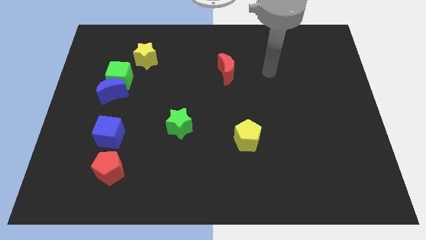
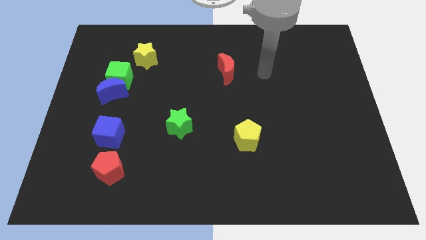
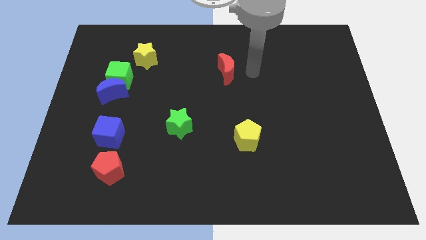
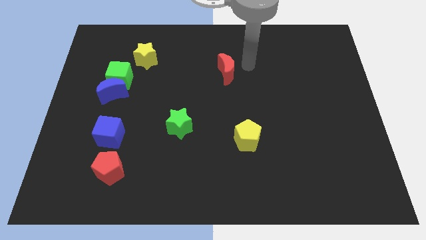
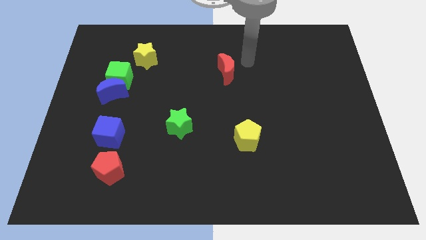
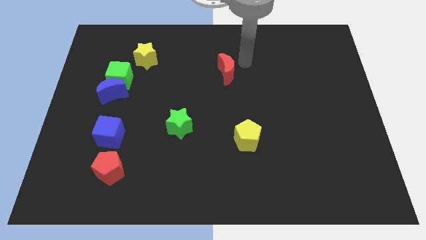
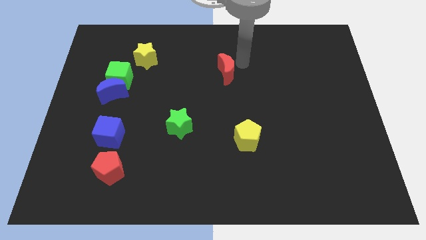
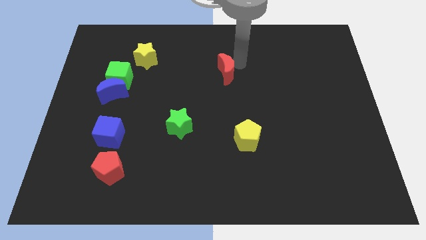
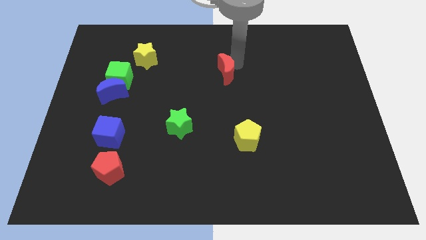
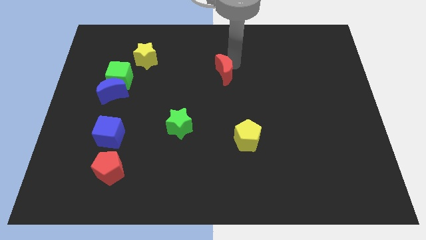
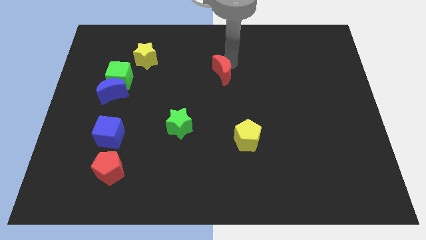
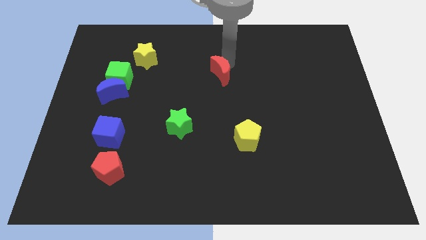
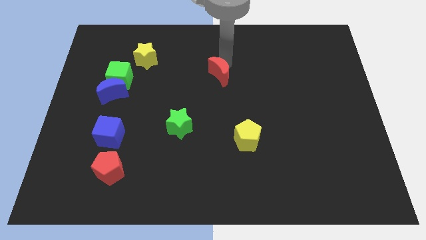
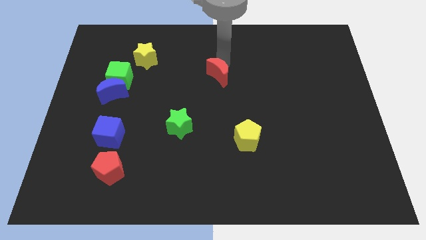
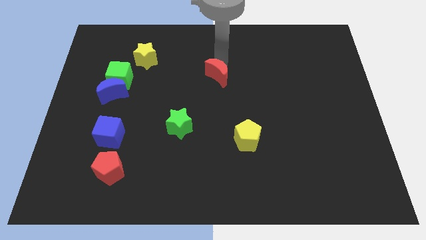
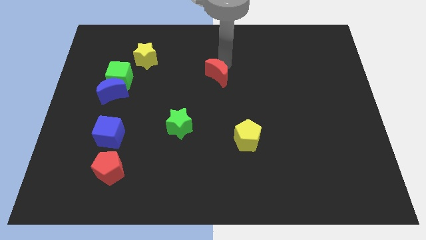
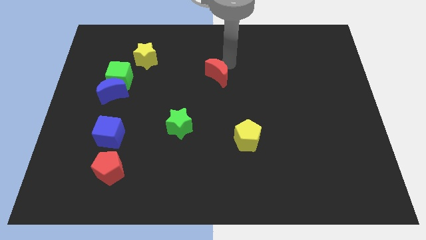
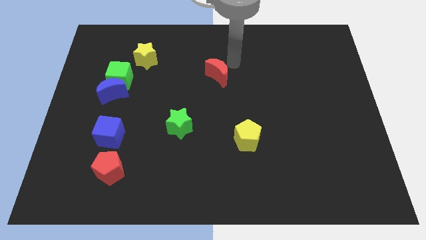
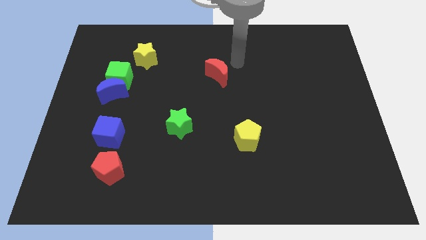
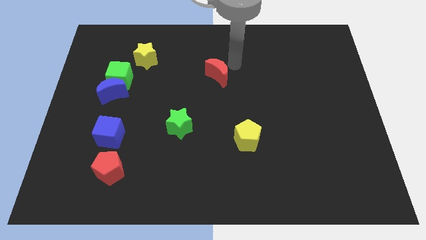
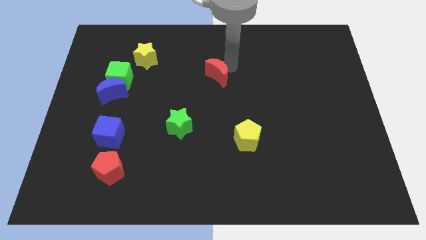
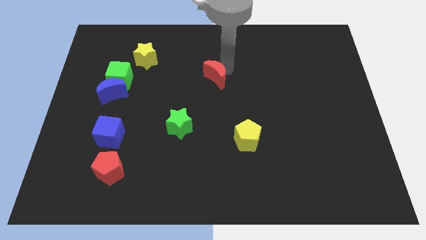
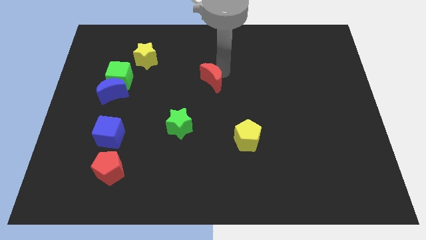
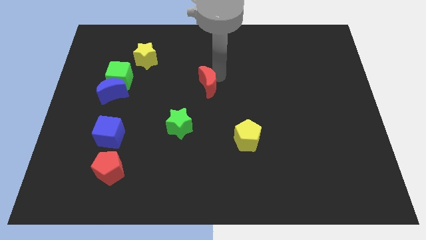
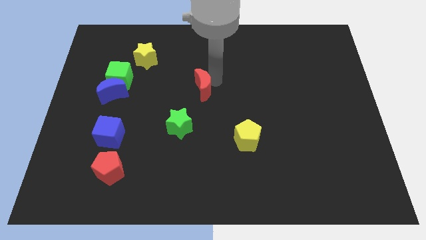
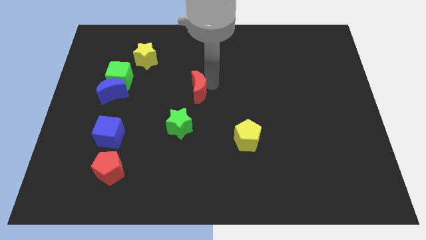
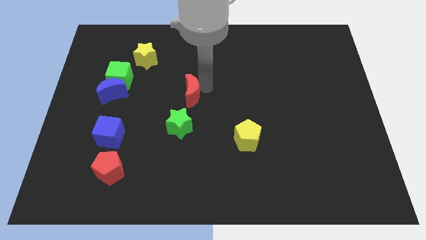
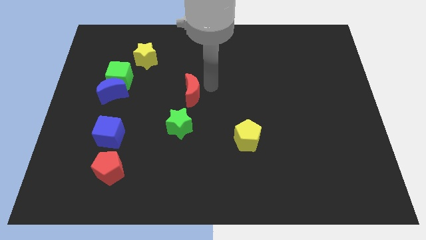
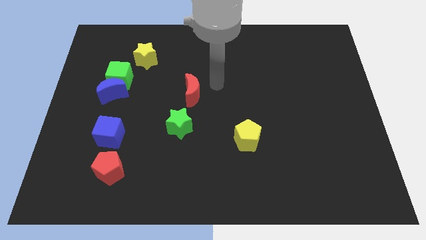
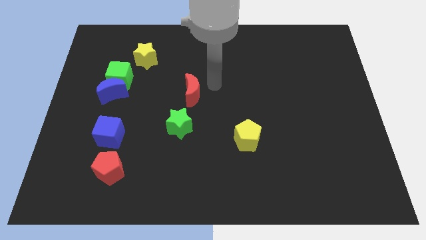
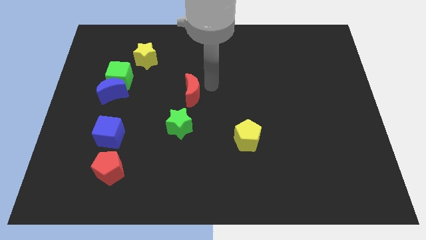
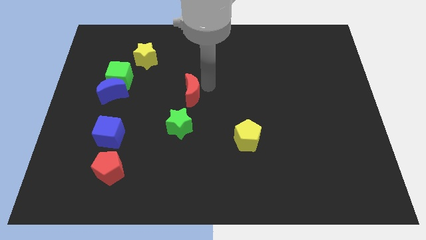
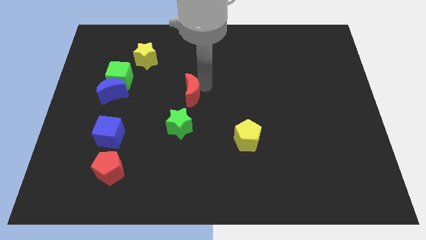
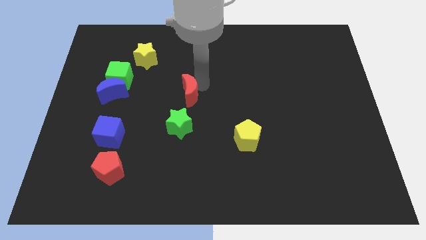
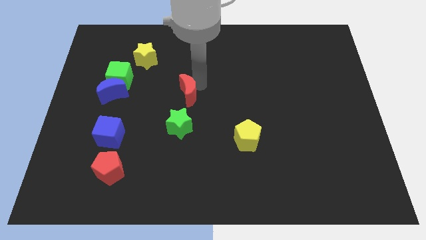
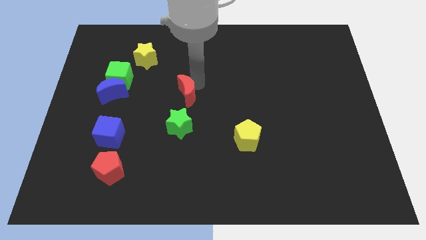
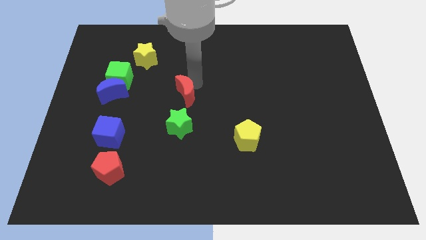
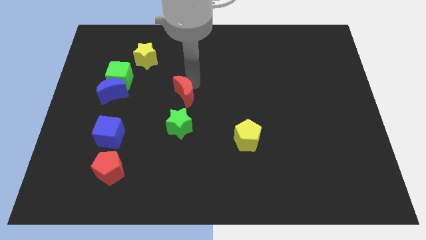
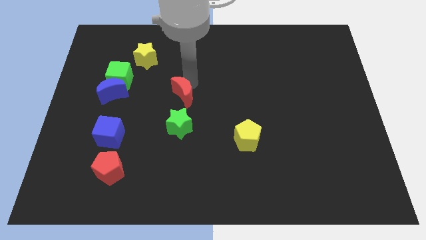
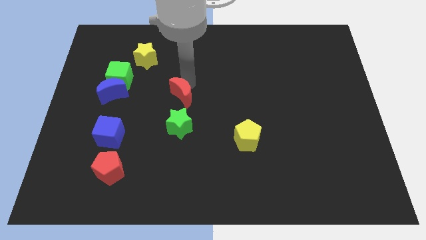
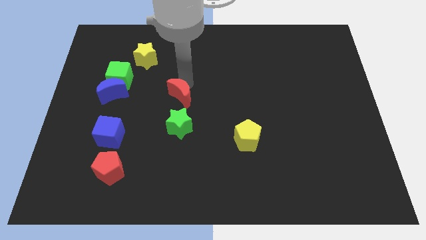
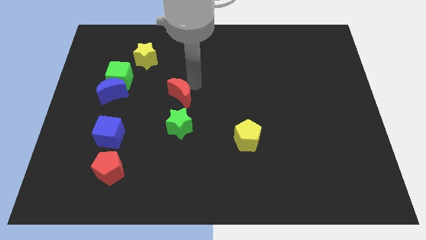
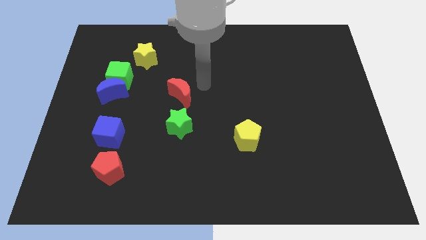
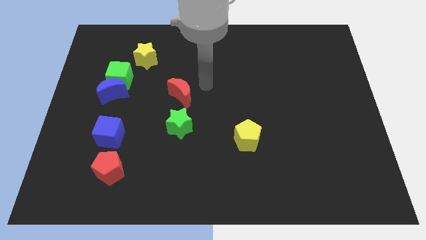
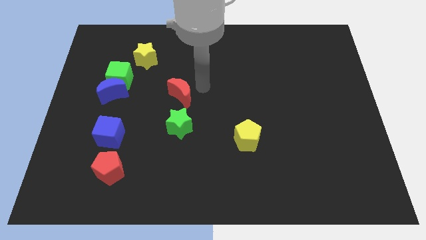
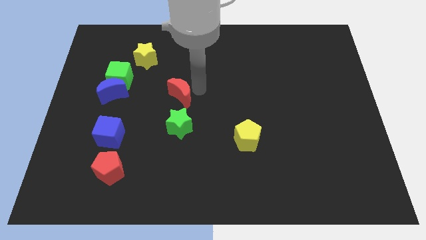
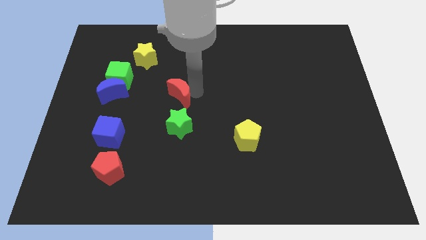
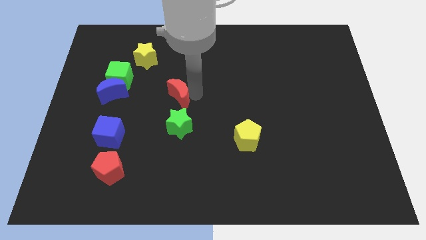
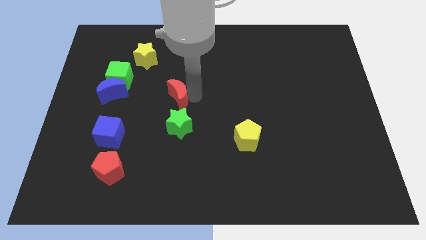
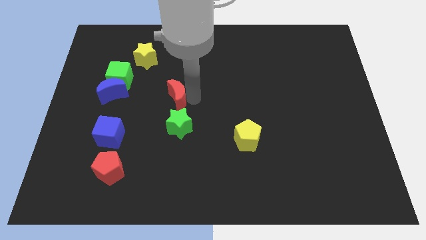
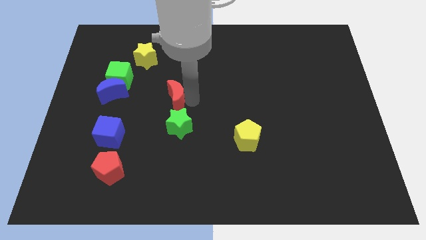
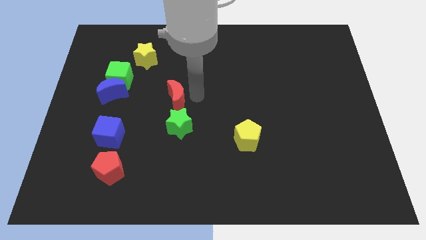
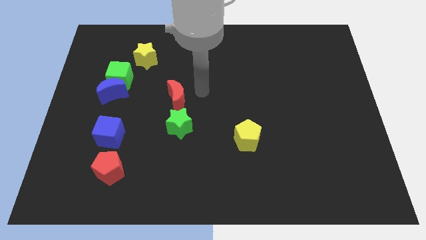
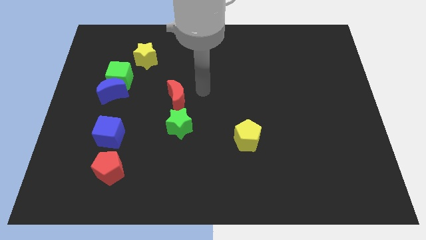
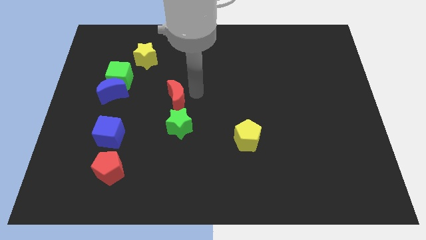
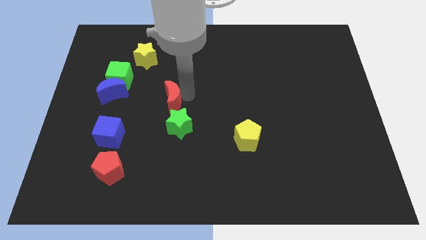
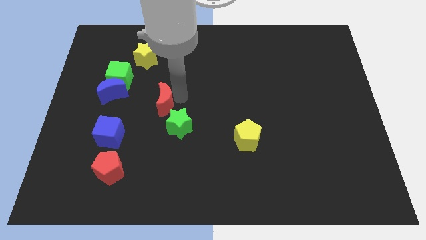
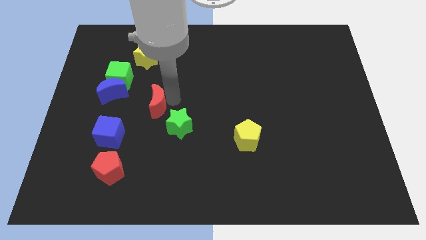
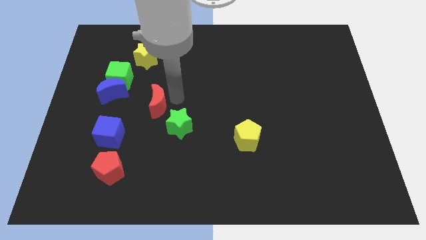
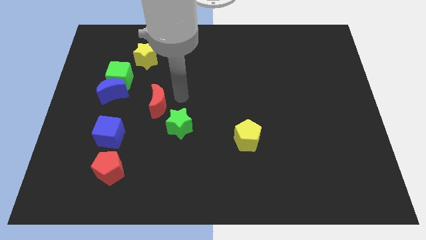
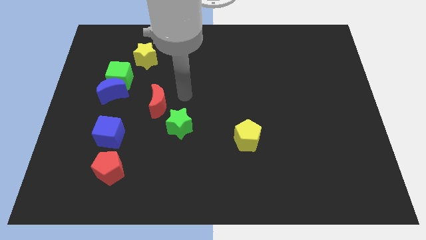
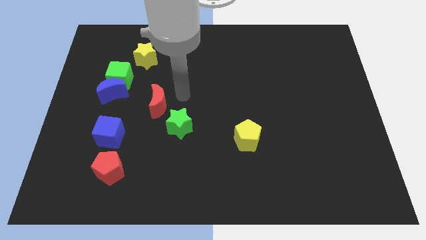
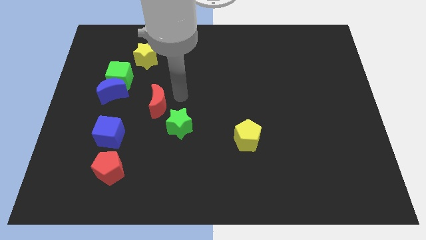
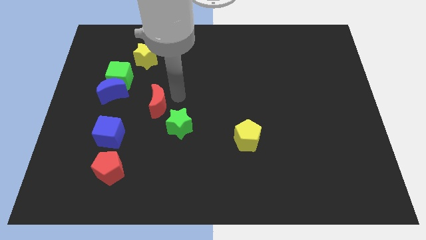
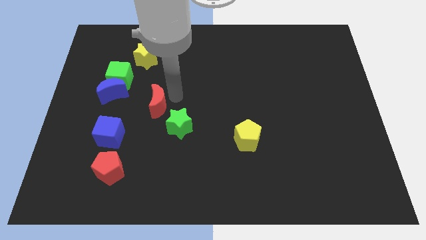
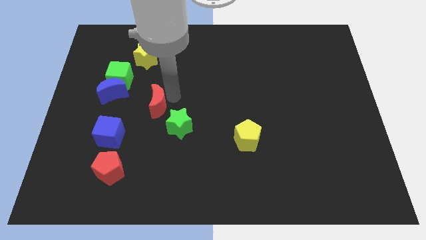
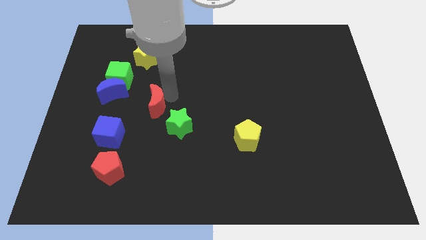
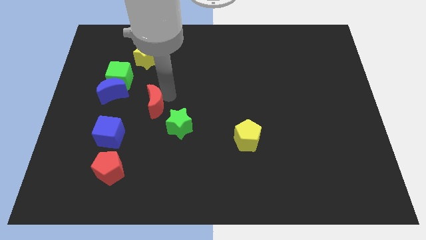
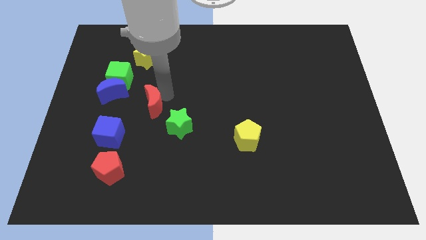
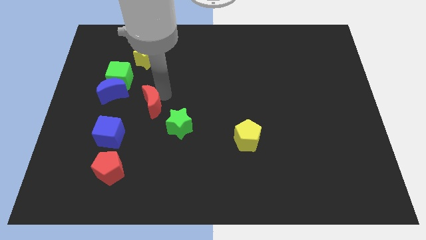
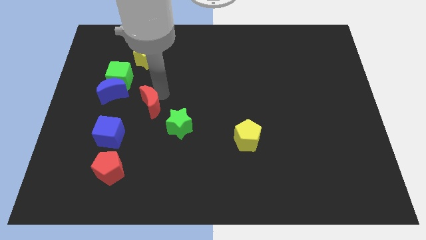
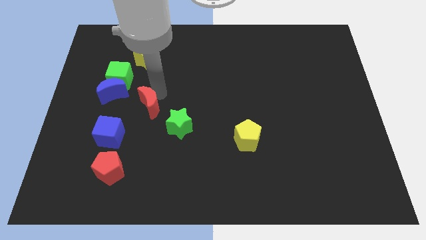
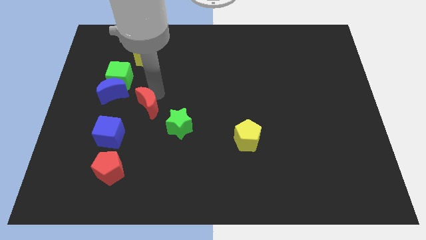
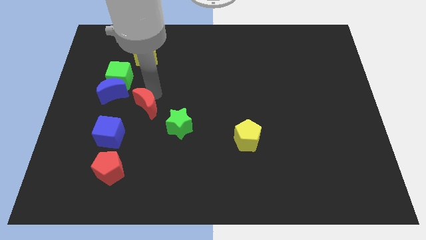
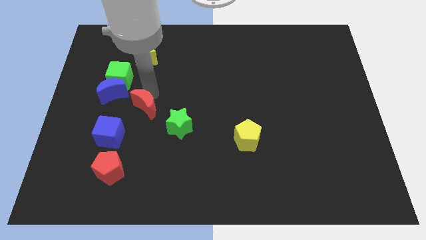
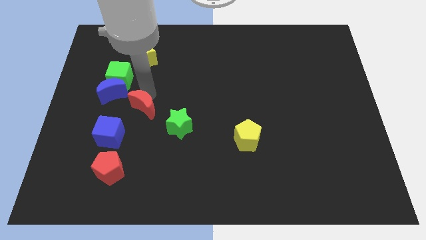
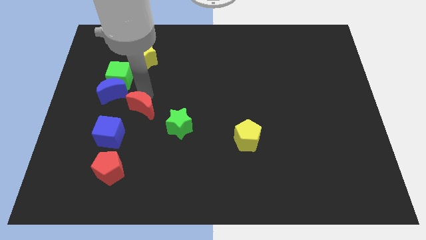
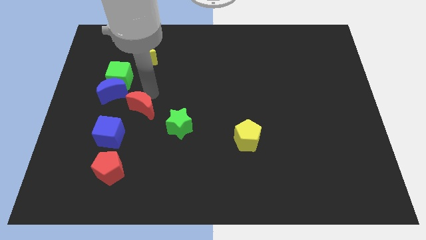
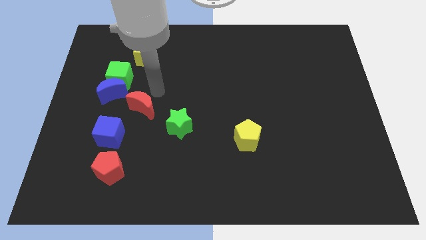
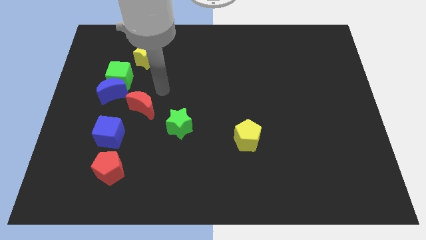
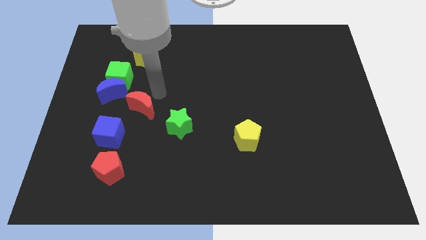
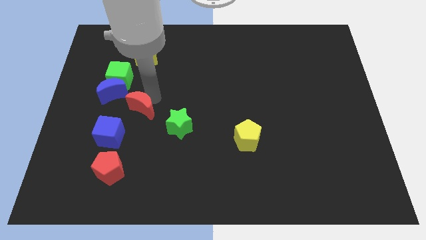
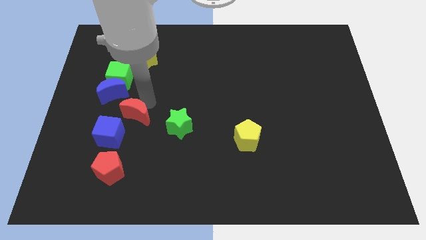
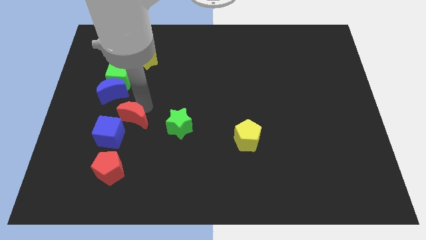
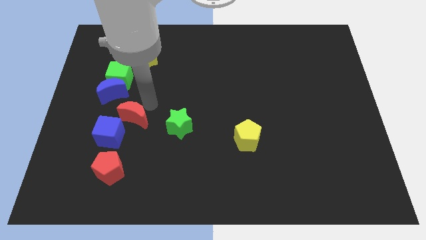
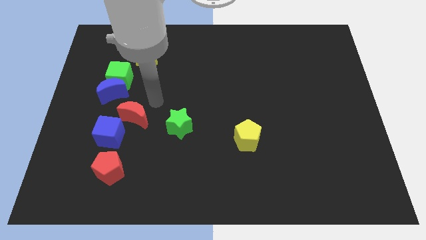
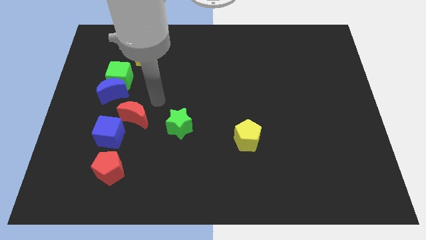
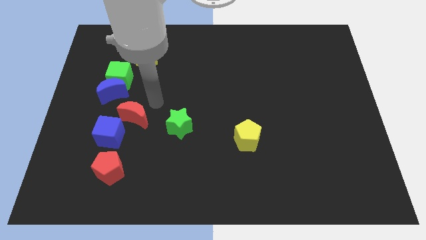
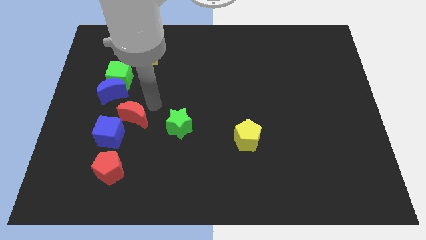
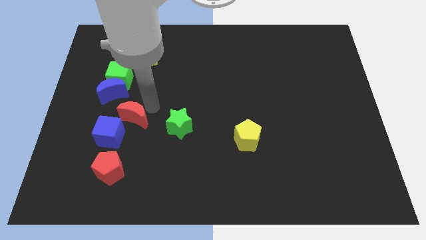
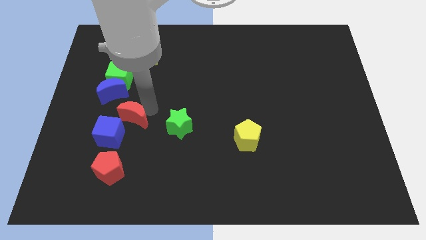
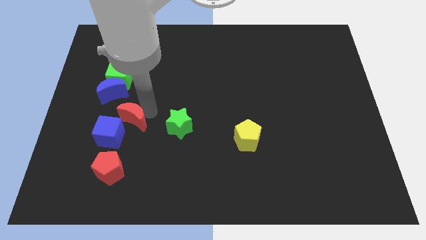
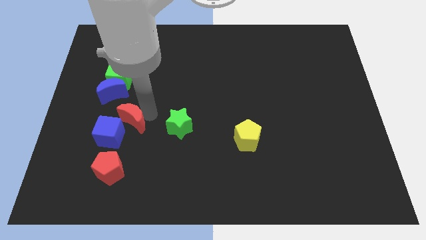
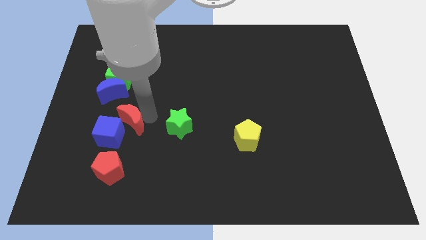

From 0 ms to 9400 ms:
push the red moon towards the blue cube
